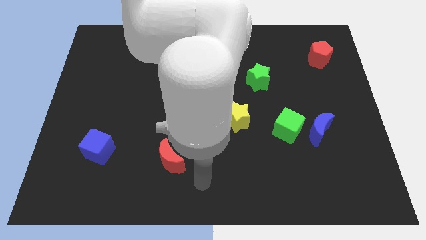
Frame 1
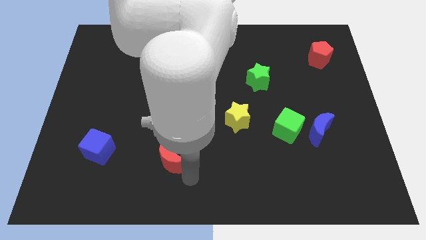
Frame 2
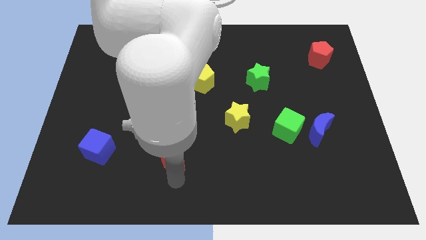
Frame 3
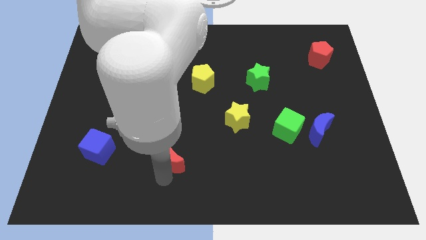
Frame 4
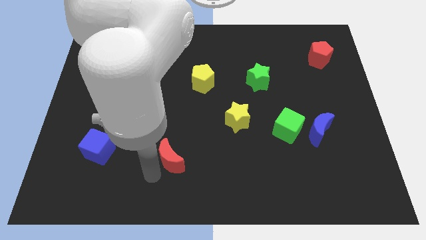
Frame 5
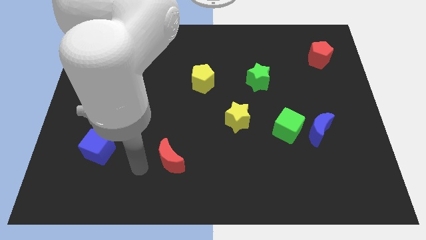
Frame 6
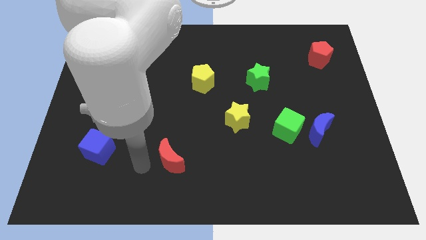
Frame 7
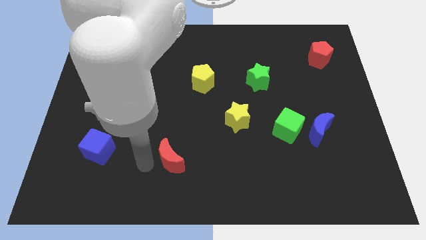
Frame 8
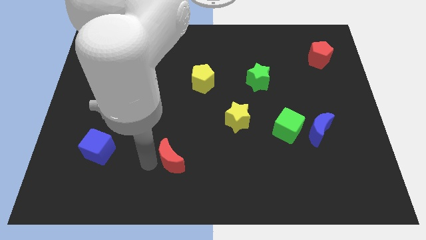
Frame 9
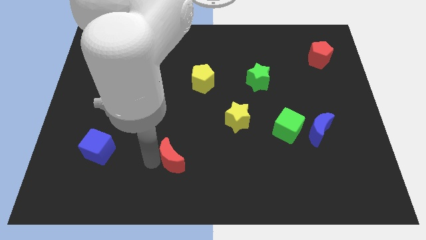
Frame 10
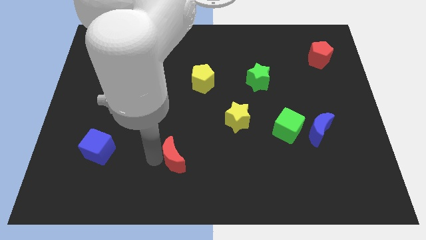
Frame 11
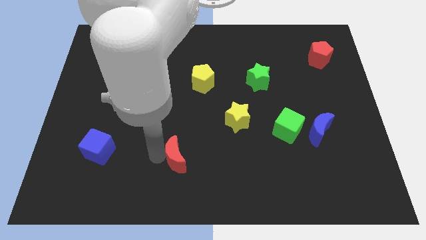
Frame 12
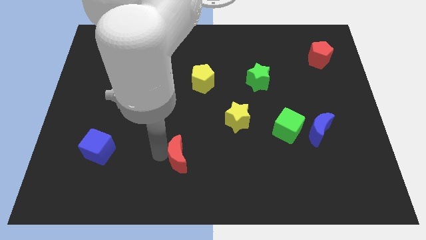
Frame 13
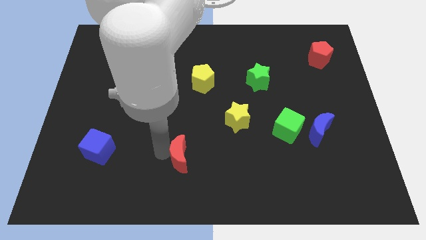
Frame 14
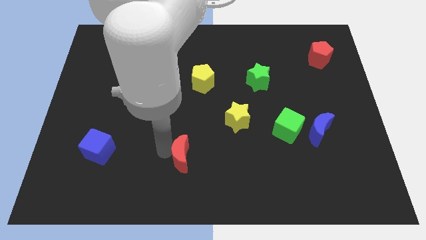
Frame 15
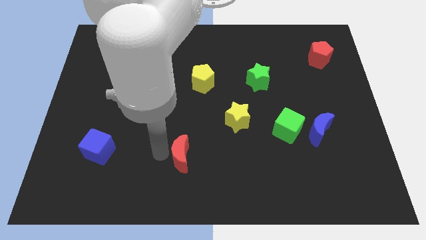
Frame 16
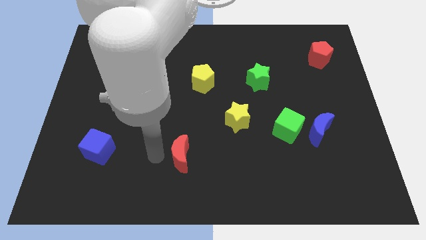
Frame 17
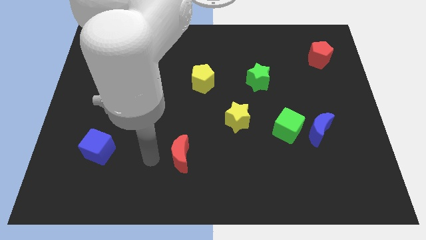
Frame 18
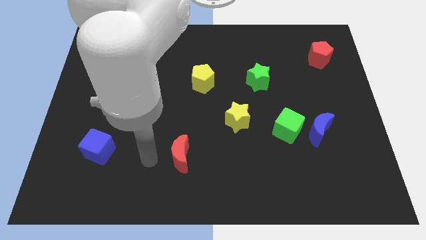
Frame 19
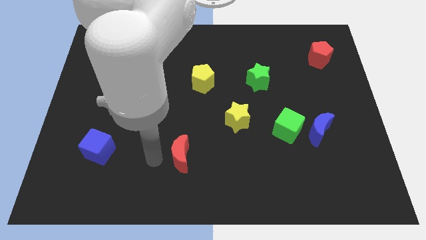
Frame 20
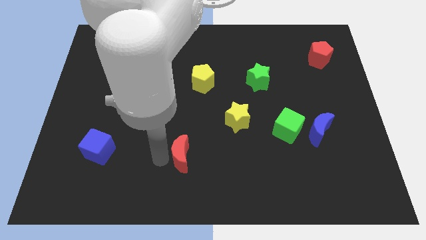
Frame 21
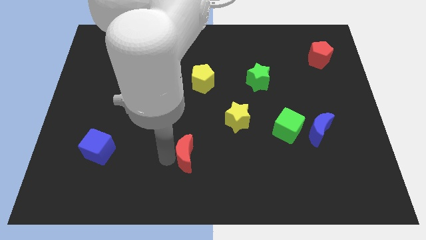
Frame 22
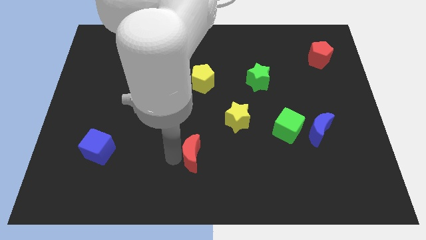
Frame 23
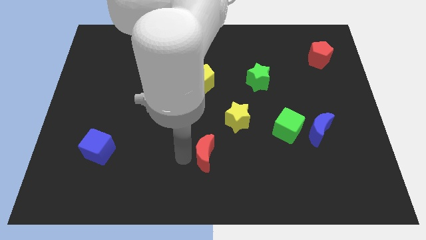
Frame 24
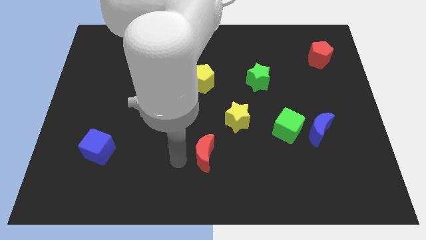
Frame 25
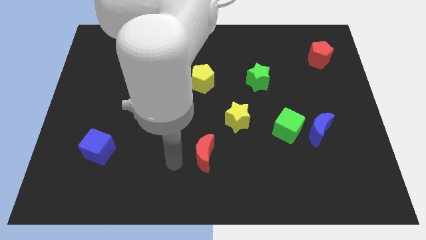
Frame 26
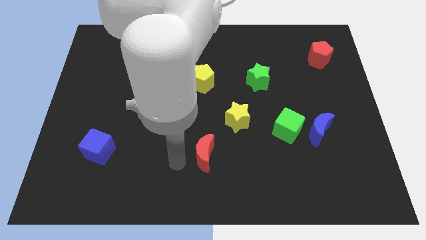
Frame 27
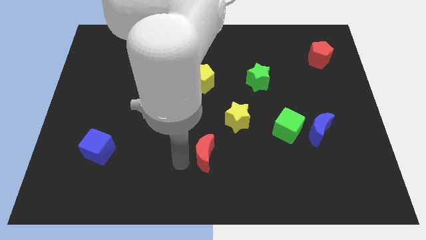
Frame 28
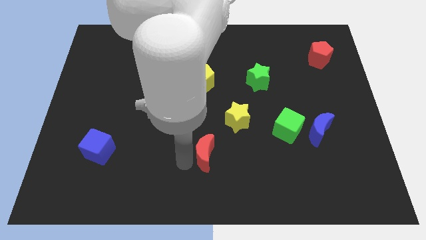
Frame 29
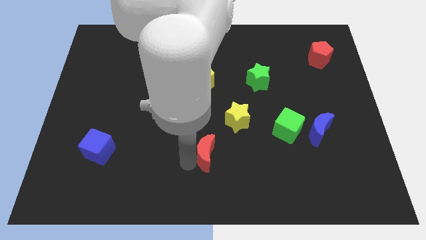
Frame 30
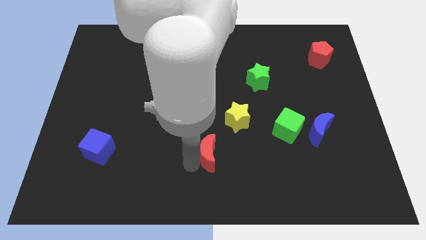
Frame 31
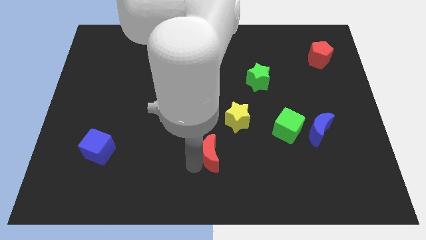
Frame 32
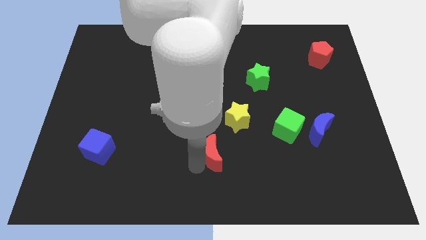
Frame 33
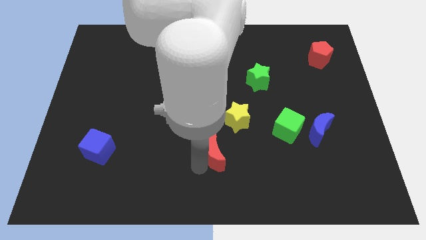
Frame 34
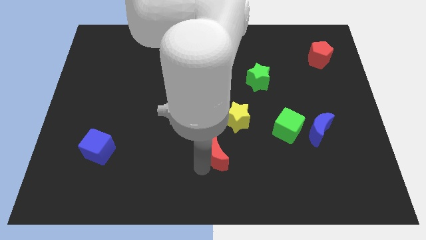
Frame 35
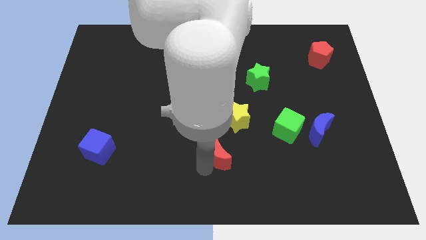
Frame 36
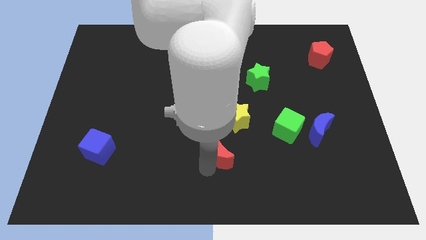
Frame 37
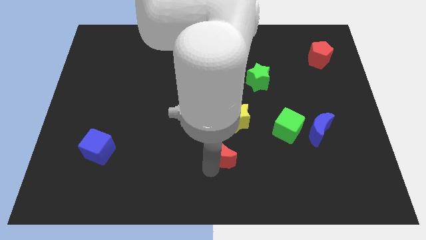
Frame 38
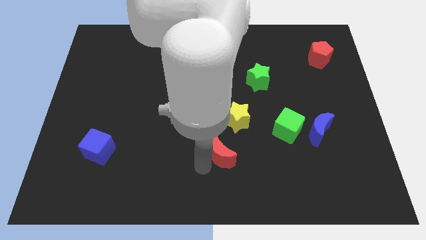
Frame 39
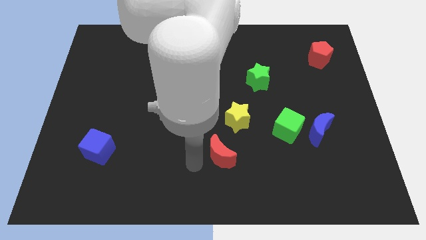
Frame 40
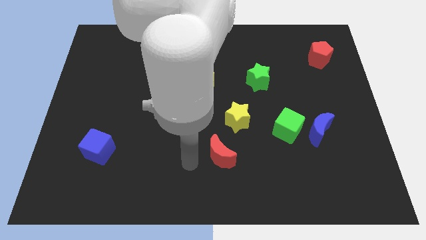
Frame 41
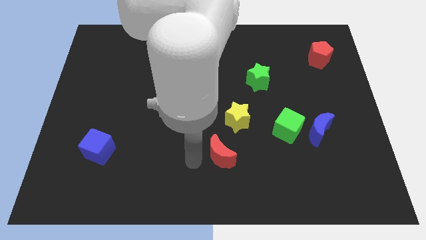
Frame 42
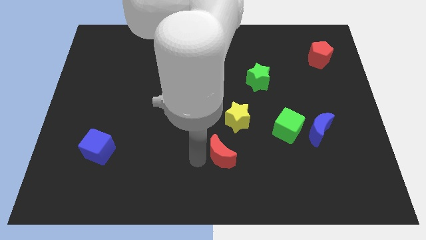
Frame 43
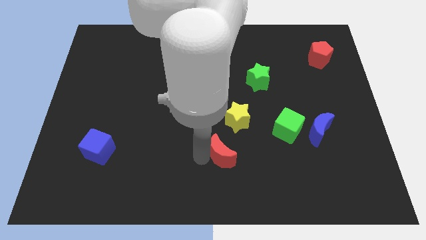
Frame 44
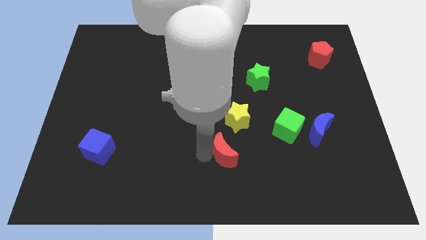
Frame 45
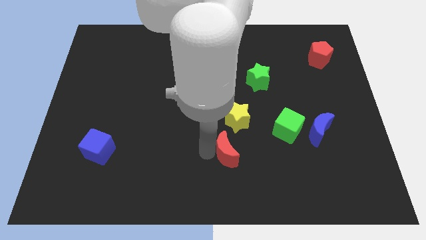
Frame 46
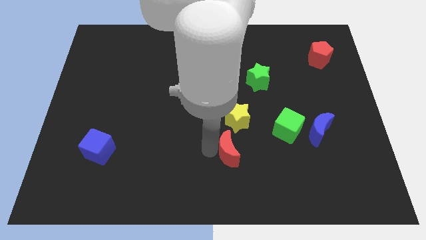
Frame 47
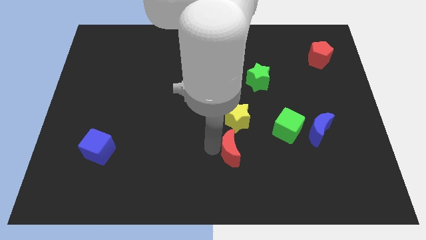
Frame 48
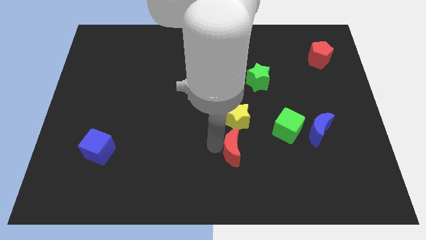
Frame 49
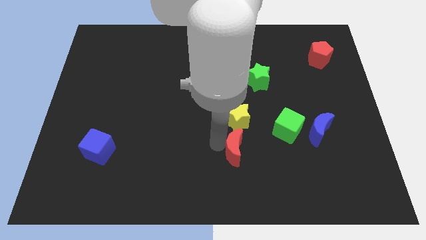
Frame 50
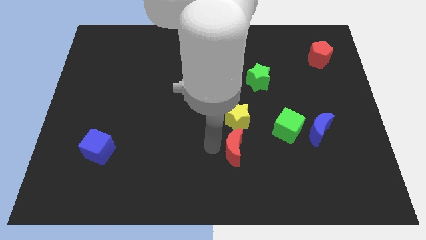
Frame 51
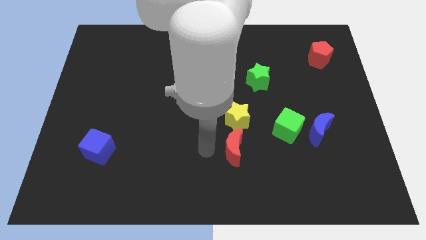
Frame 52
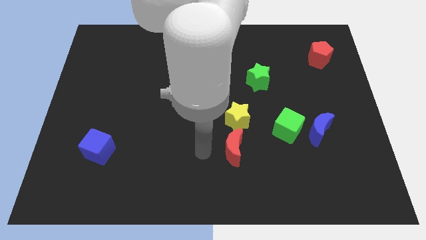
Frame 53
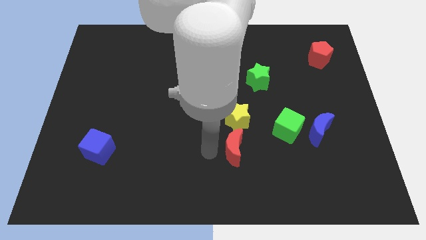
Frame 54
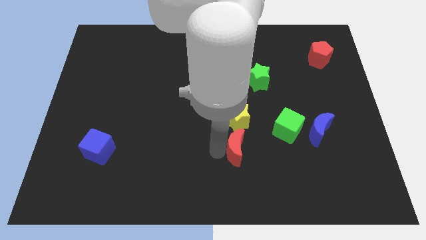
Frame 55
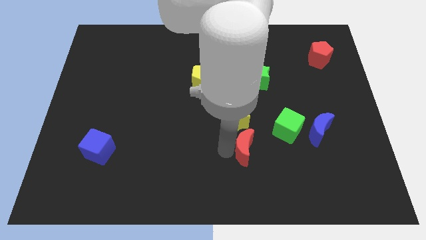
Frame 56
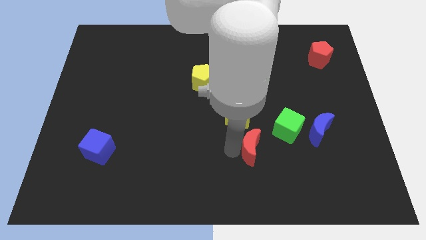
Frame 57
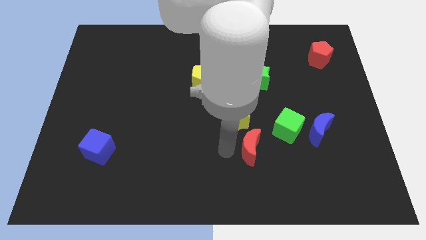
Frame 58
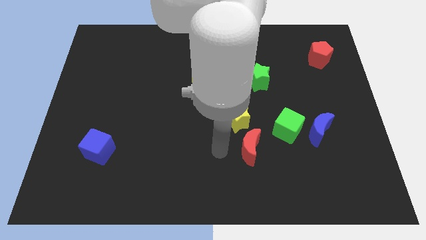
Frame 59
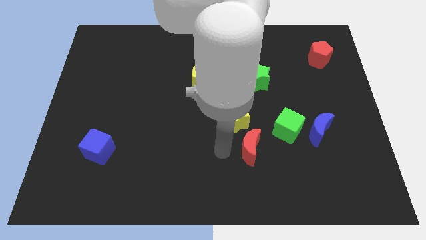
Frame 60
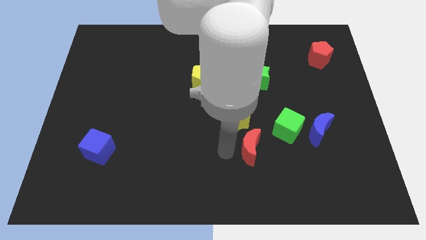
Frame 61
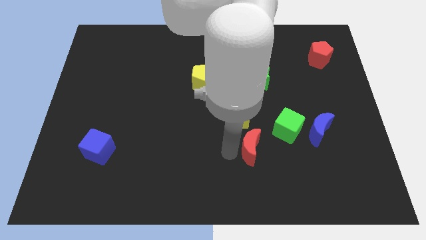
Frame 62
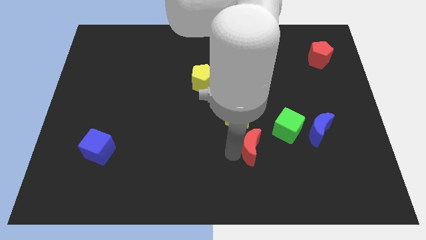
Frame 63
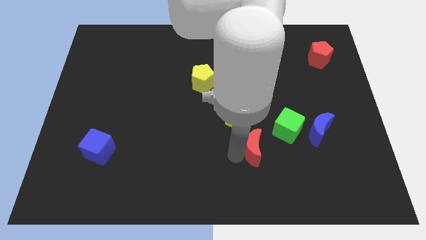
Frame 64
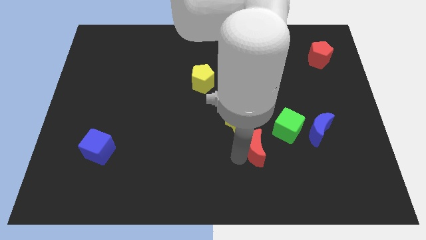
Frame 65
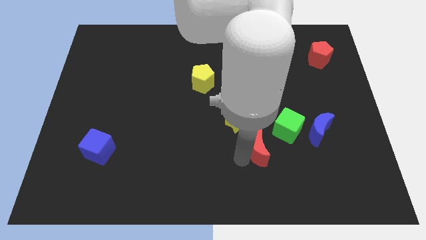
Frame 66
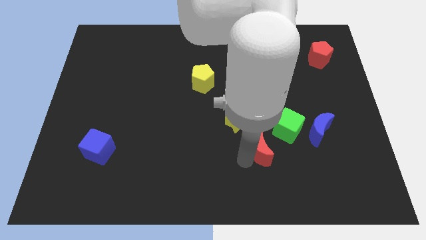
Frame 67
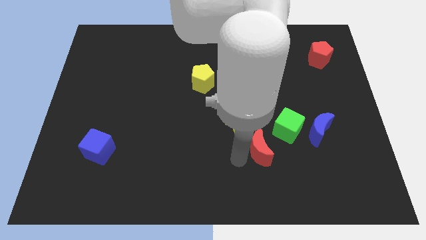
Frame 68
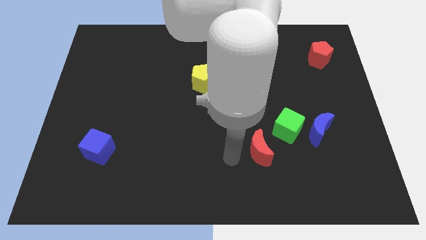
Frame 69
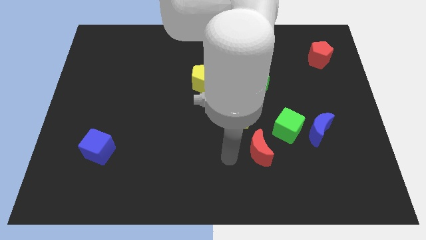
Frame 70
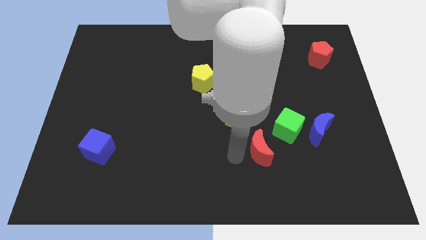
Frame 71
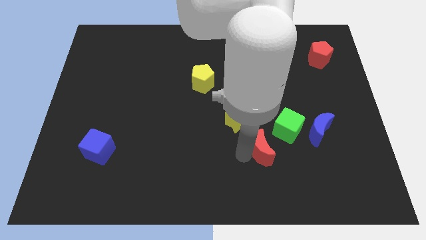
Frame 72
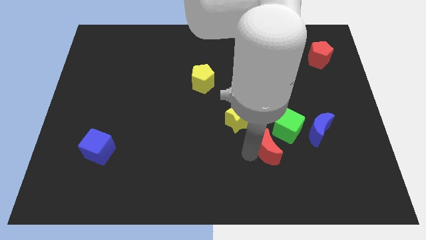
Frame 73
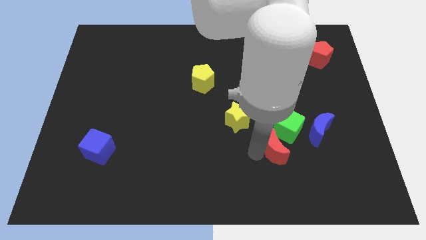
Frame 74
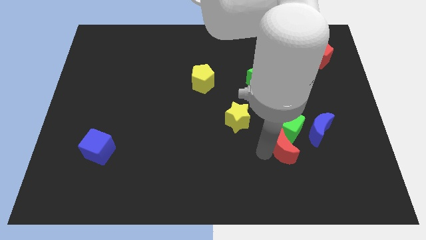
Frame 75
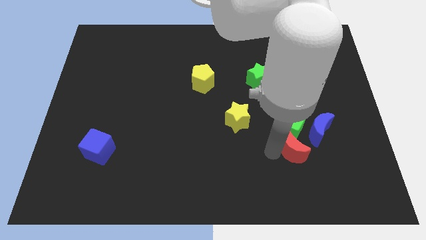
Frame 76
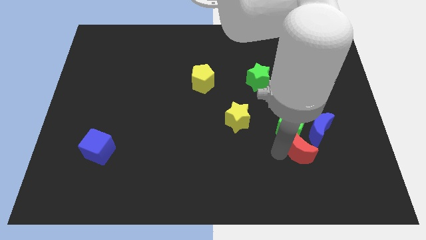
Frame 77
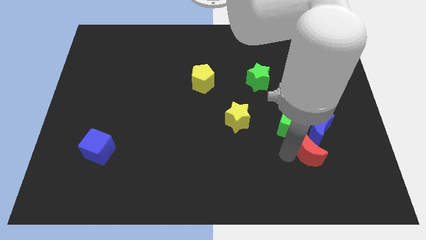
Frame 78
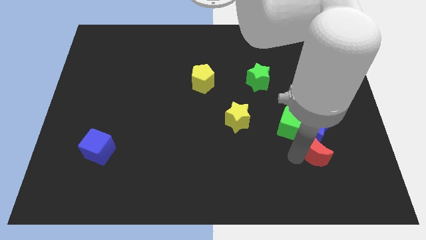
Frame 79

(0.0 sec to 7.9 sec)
move the red moon towards the blue moon
